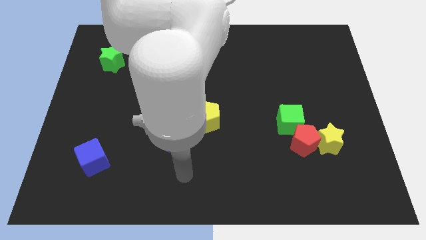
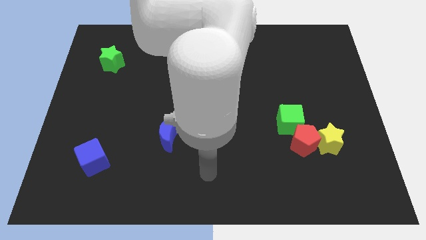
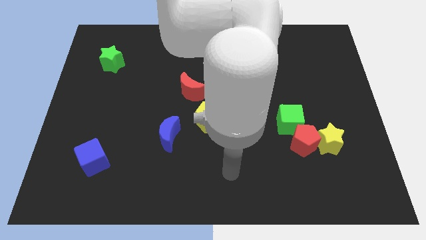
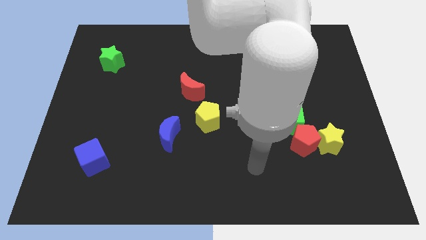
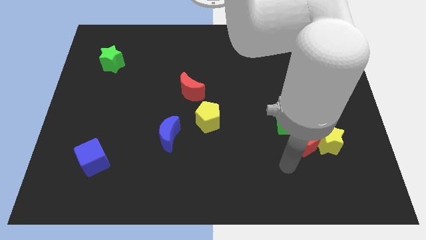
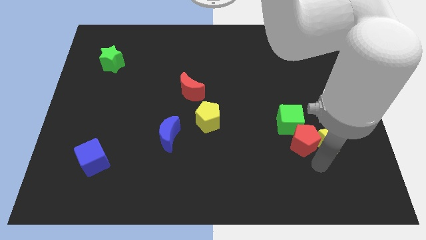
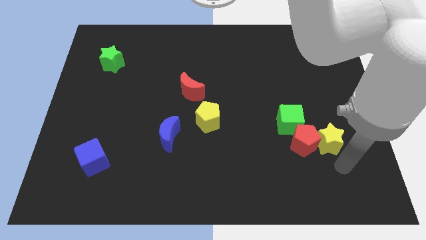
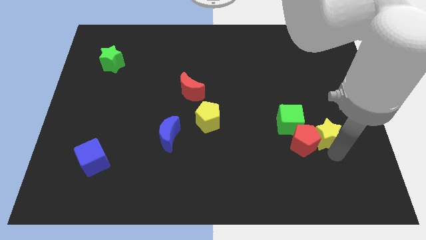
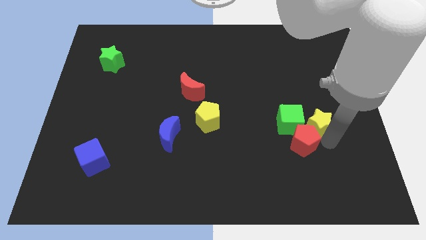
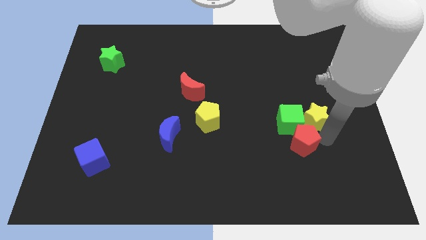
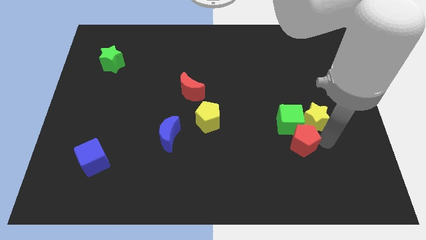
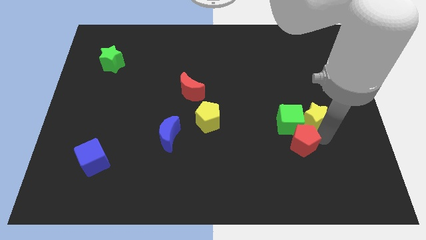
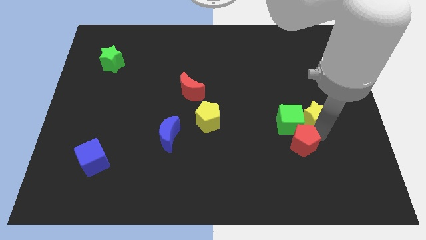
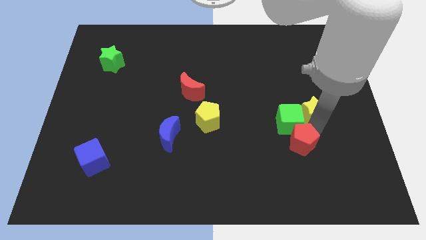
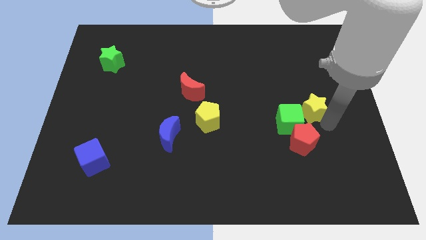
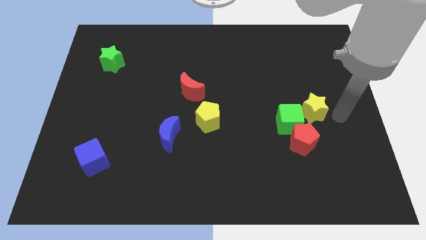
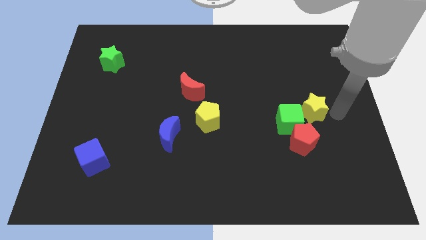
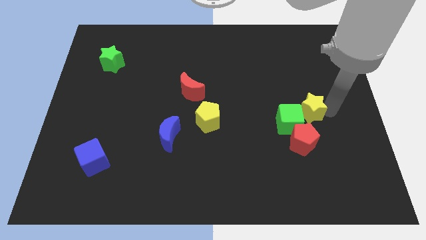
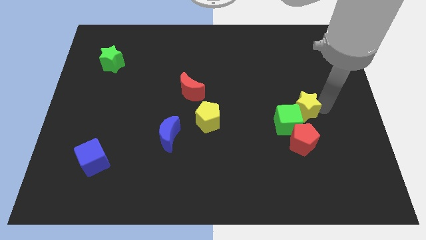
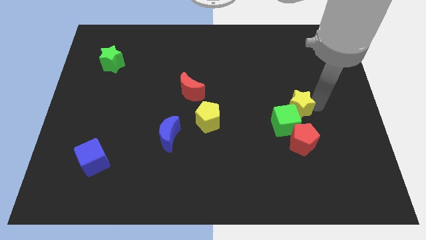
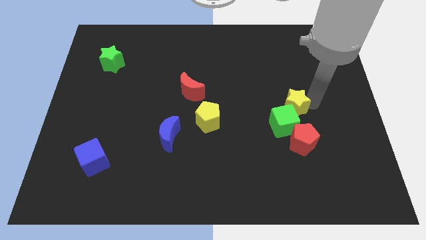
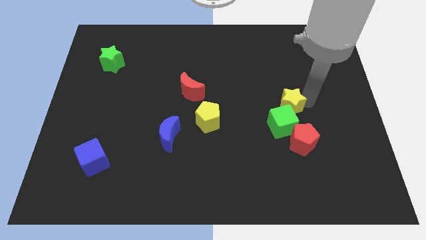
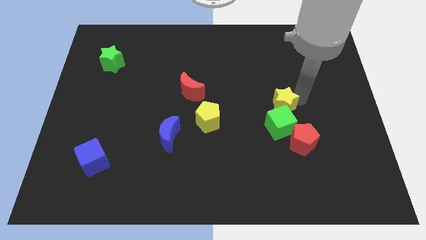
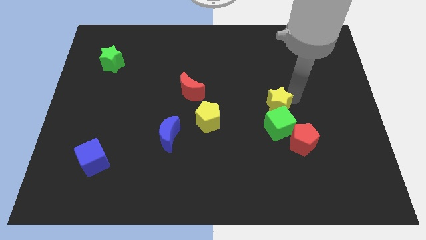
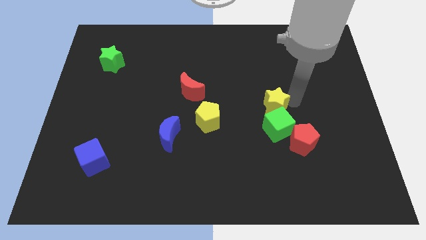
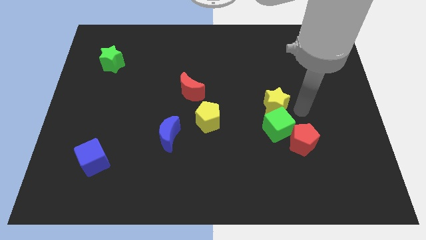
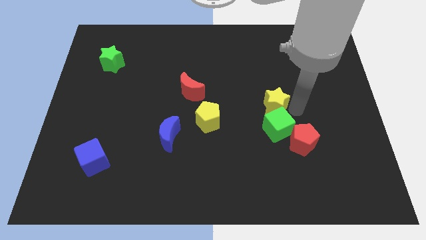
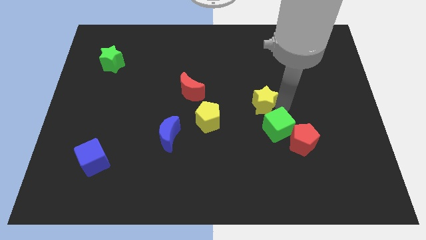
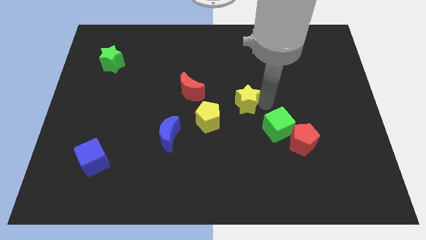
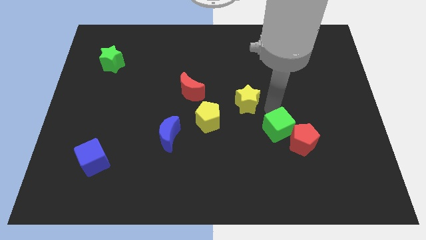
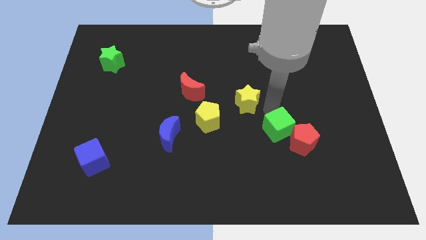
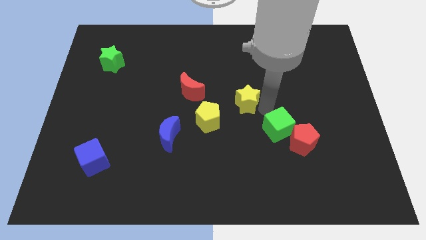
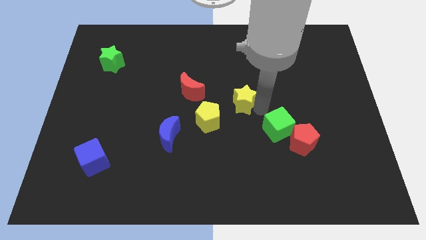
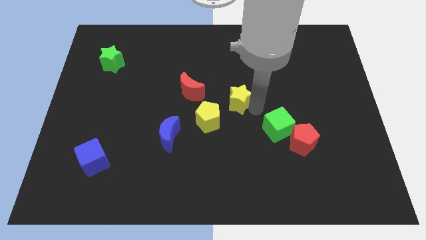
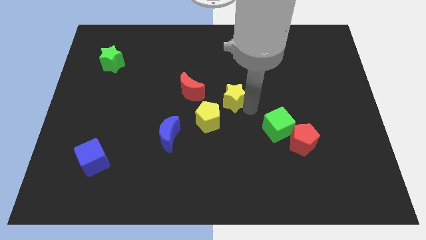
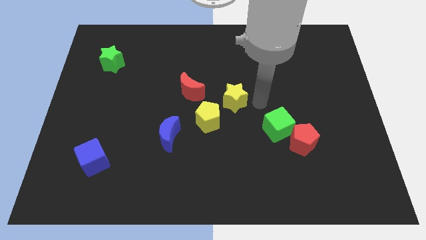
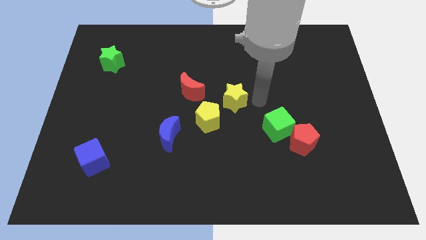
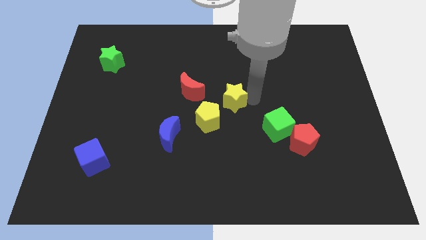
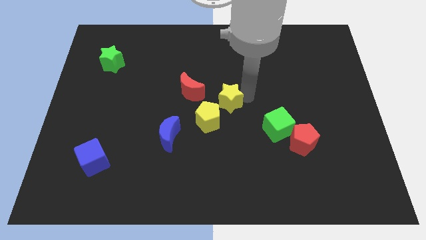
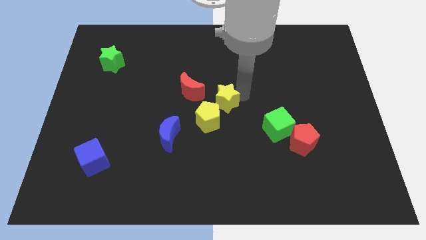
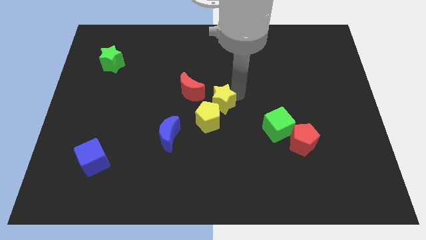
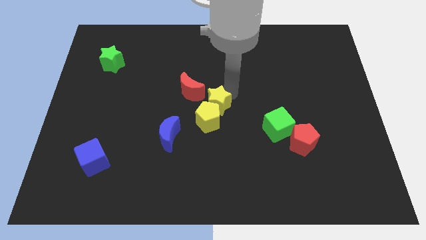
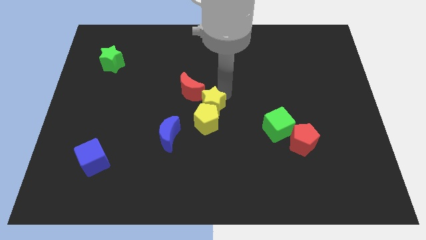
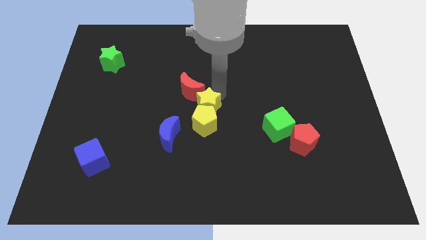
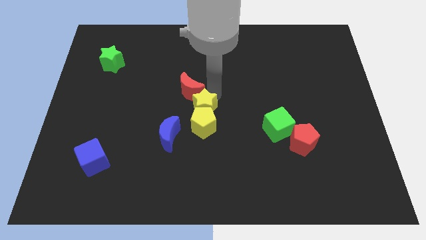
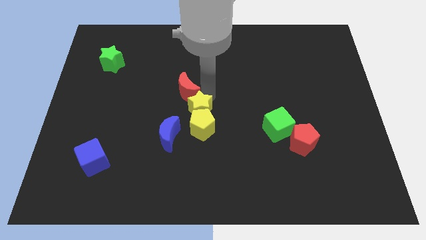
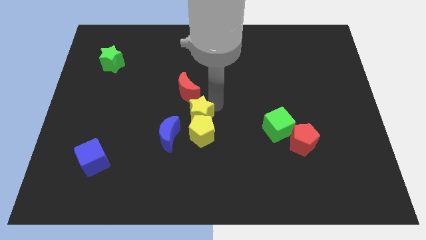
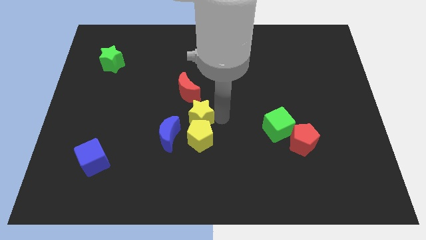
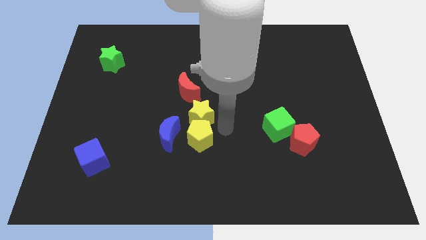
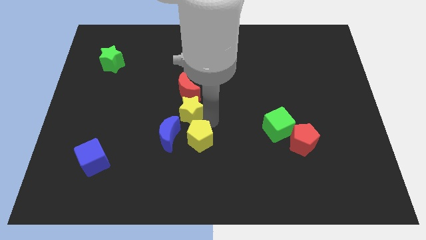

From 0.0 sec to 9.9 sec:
put the yellow star above the blue moon

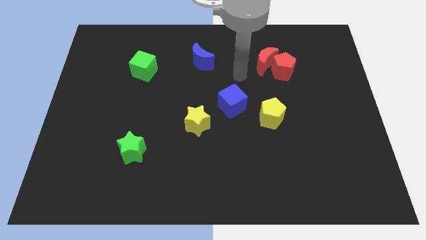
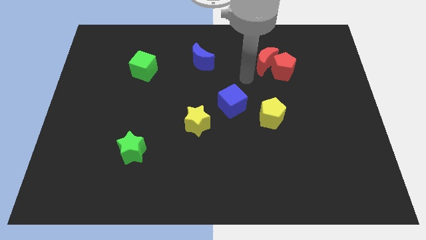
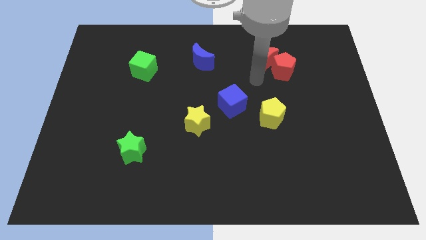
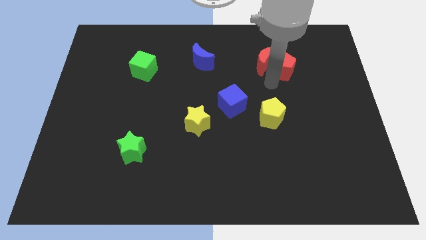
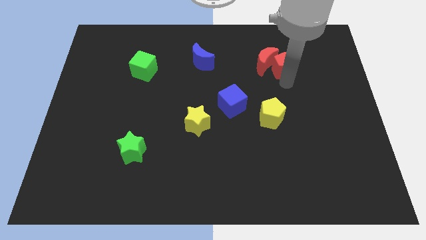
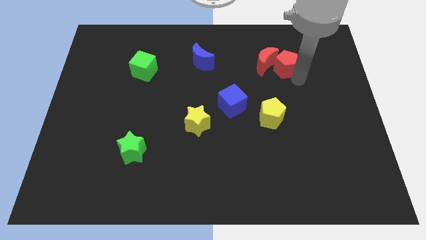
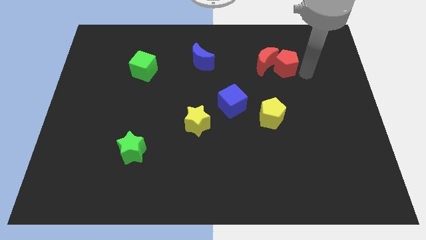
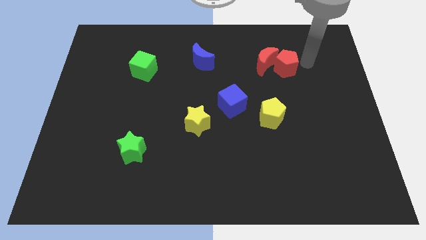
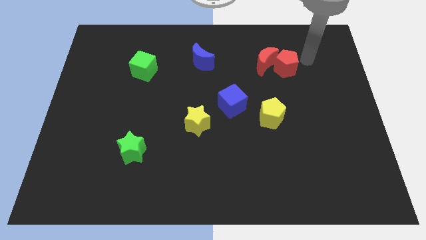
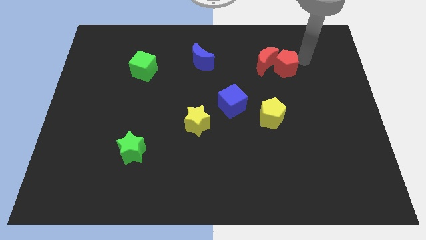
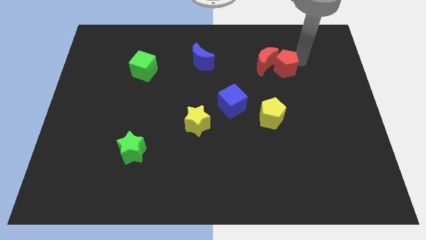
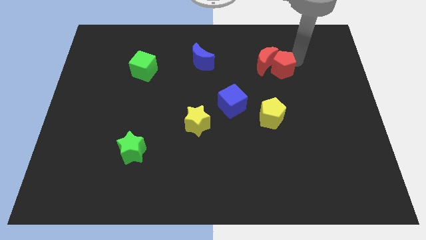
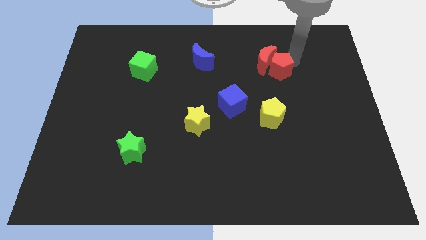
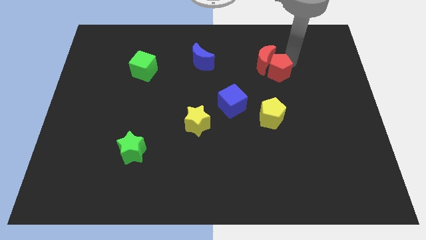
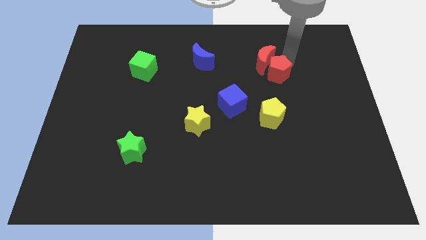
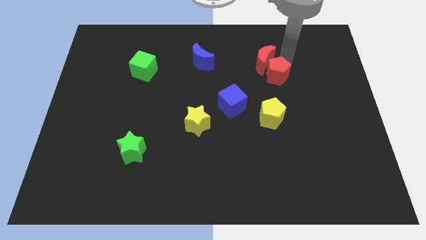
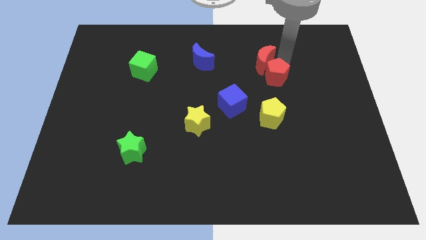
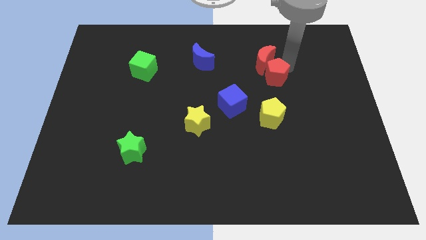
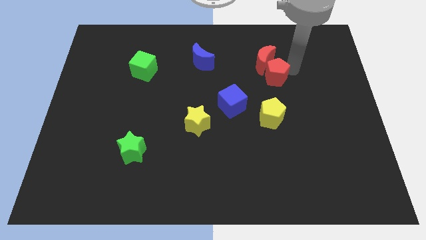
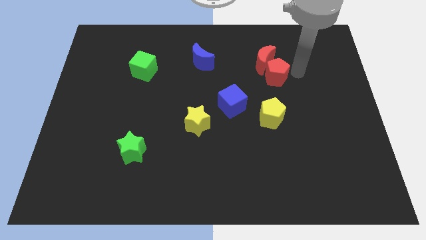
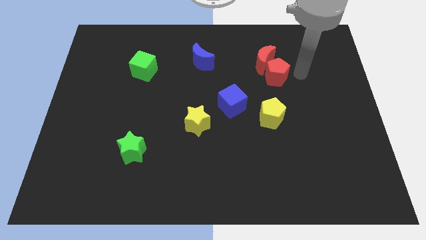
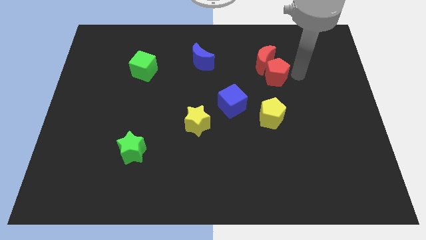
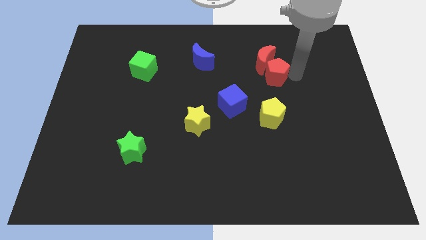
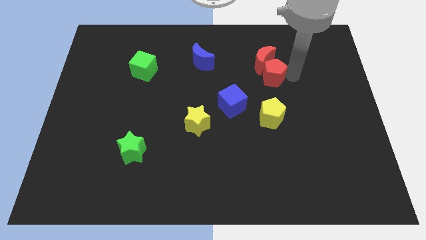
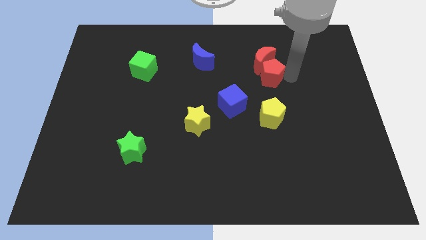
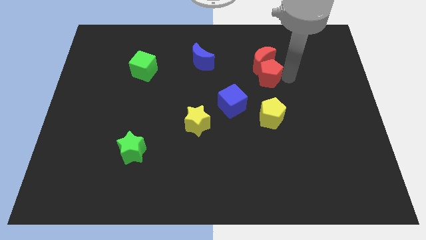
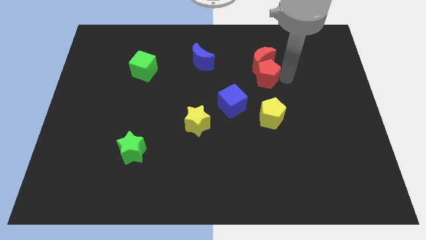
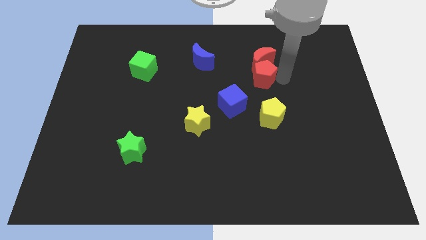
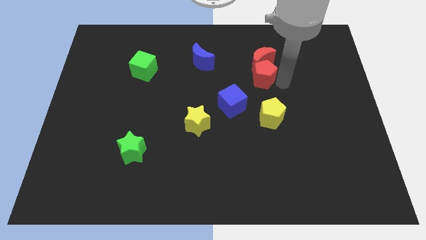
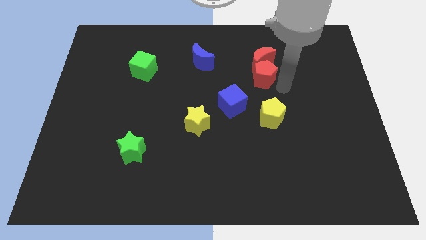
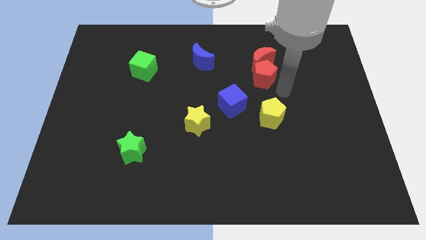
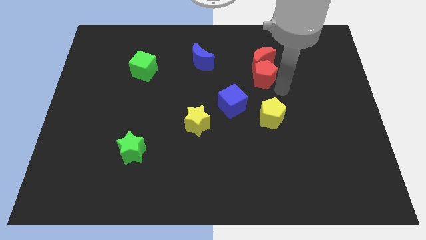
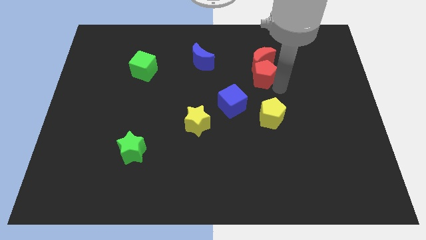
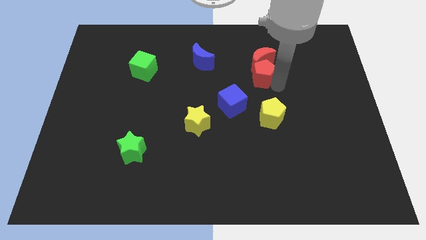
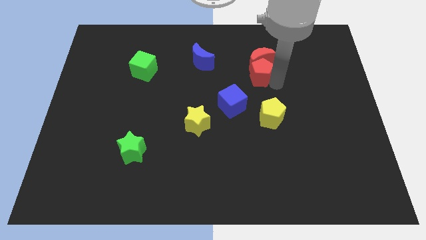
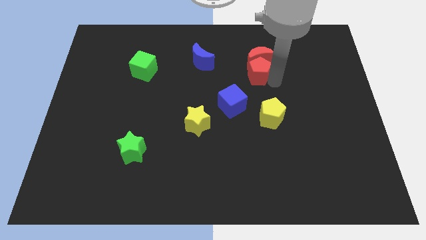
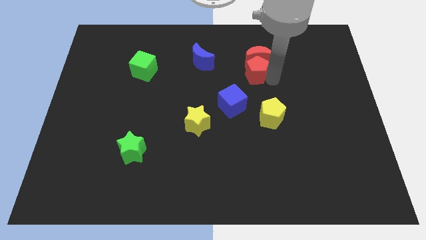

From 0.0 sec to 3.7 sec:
push the red pentagon just right of the blue moon
